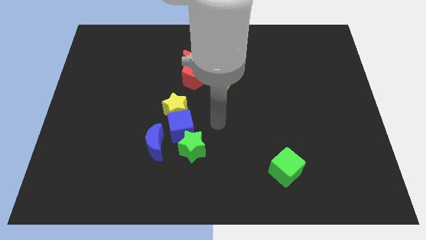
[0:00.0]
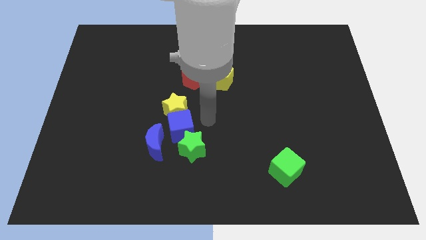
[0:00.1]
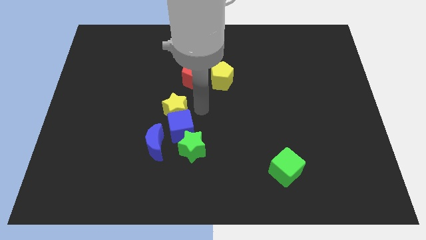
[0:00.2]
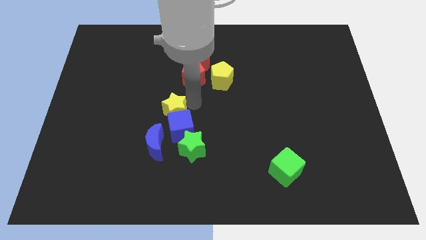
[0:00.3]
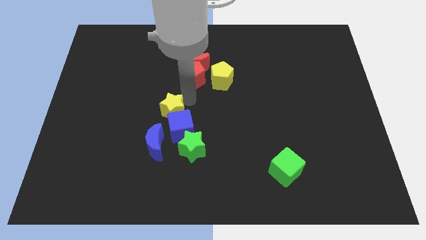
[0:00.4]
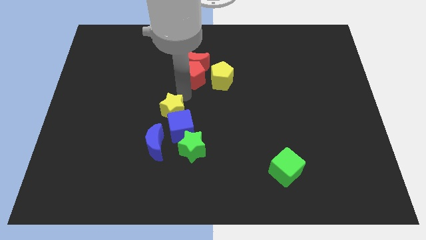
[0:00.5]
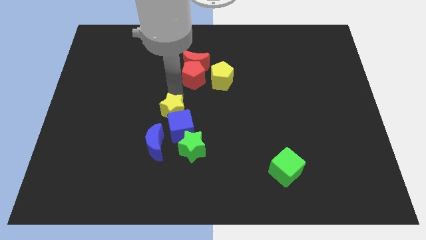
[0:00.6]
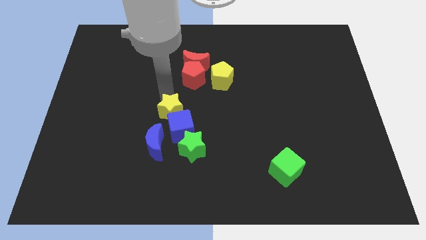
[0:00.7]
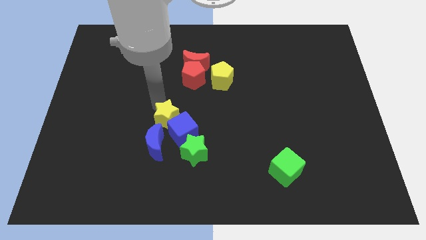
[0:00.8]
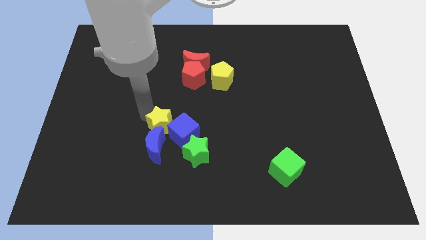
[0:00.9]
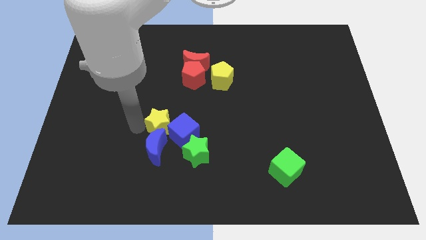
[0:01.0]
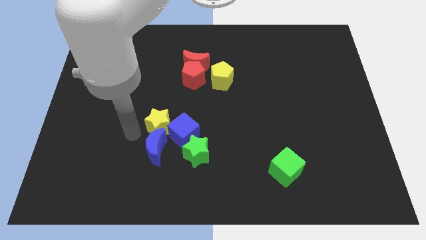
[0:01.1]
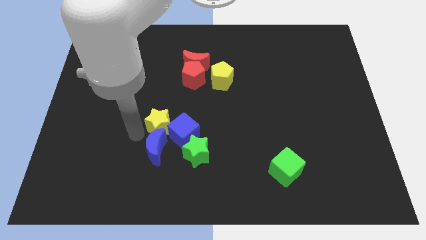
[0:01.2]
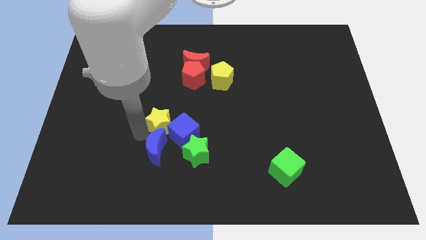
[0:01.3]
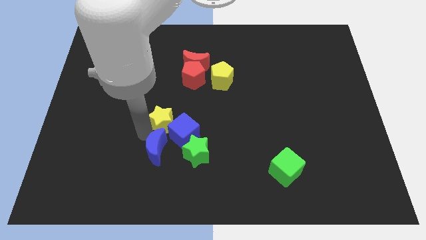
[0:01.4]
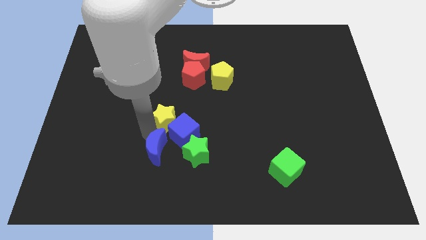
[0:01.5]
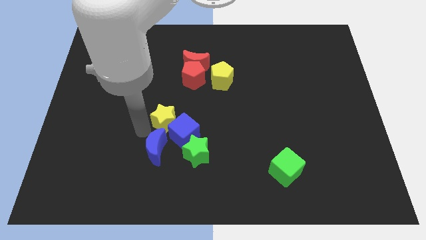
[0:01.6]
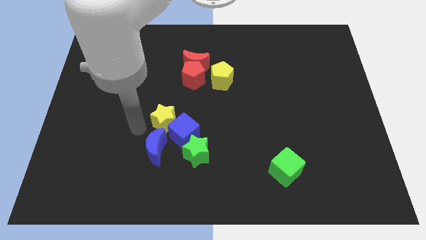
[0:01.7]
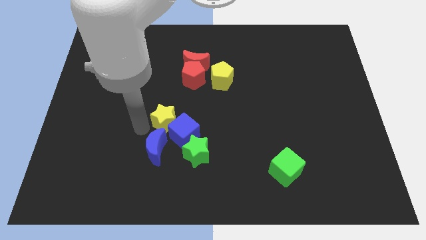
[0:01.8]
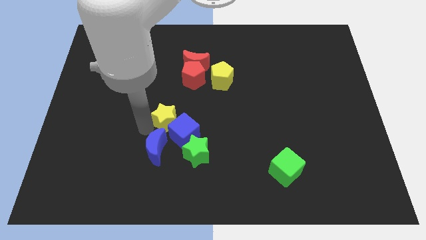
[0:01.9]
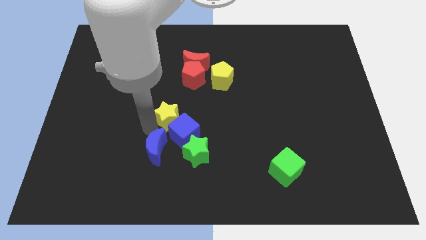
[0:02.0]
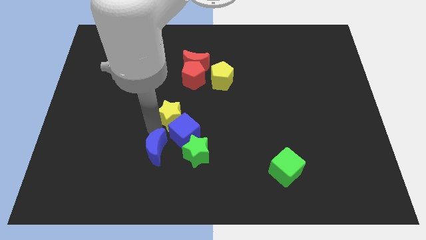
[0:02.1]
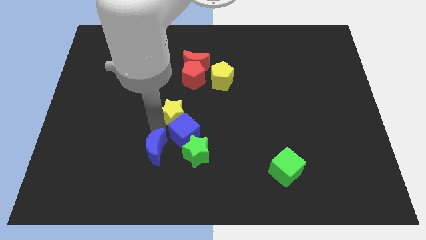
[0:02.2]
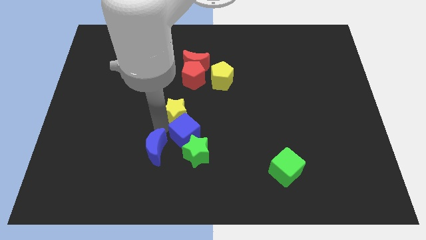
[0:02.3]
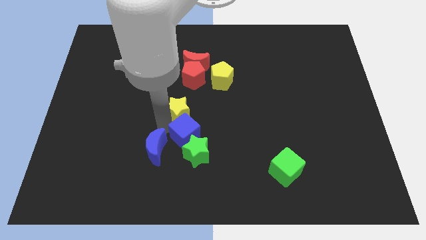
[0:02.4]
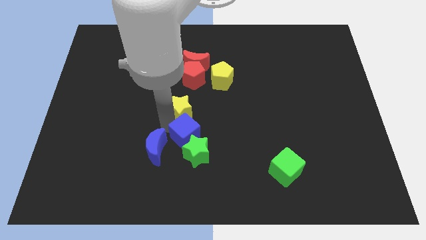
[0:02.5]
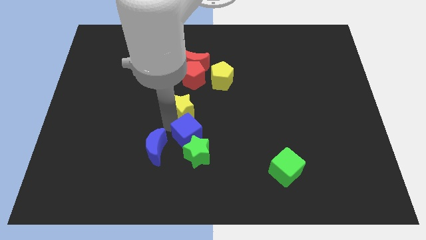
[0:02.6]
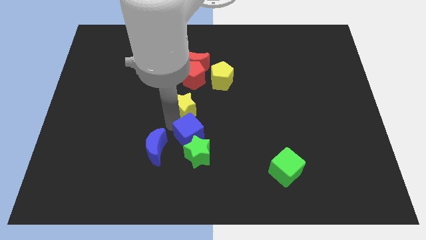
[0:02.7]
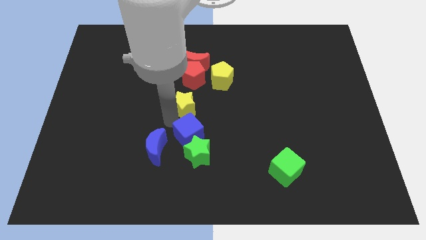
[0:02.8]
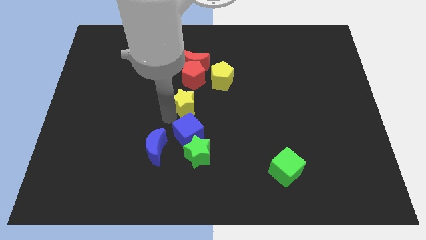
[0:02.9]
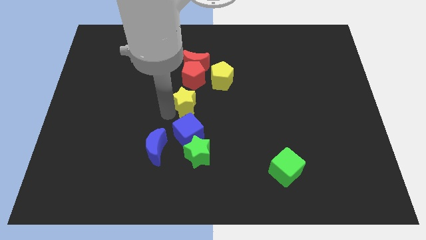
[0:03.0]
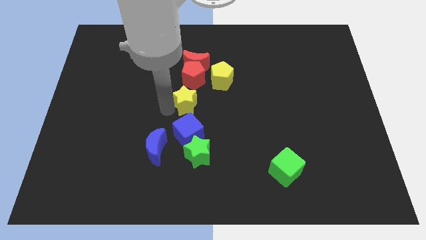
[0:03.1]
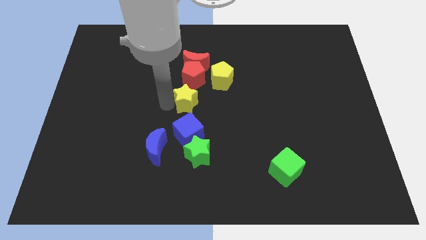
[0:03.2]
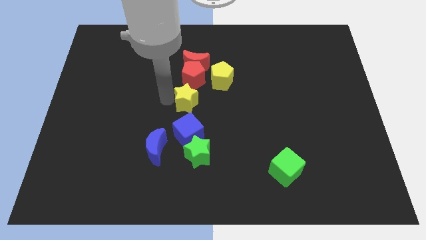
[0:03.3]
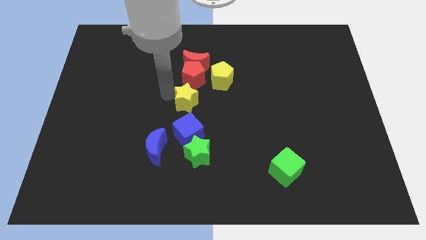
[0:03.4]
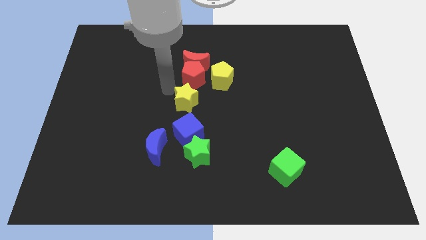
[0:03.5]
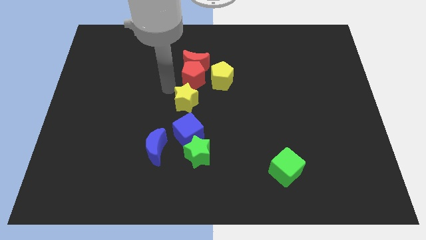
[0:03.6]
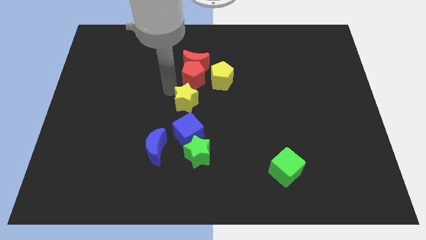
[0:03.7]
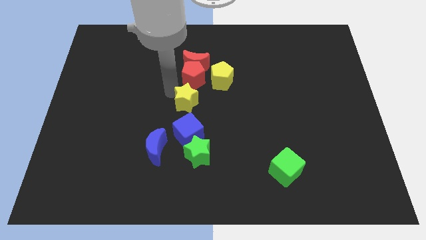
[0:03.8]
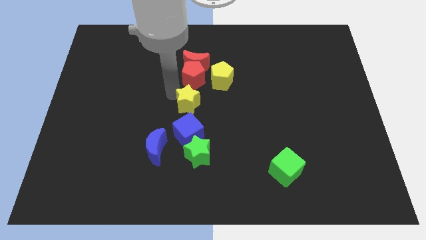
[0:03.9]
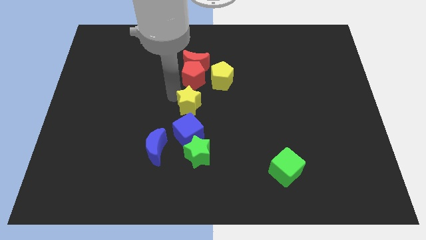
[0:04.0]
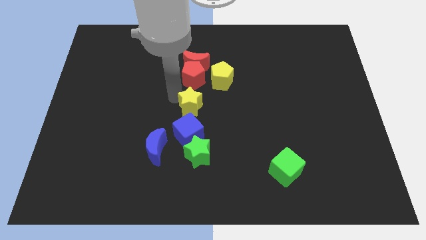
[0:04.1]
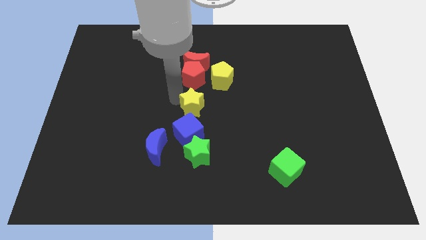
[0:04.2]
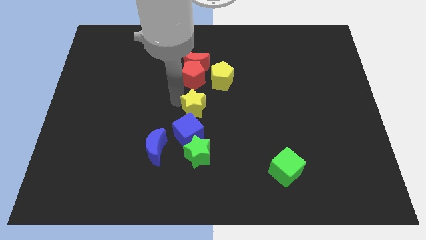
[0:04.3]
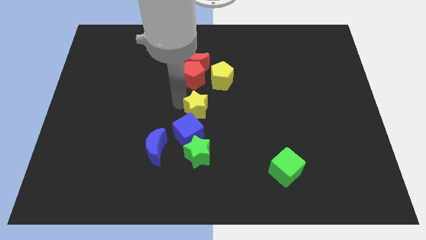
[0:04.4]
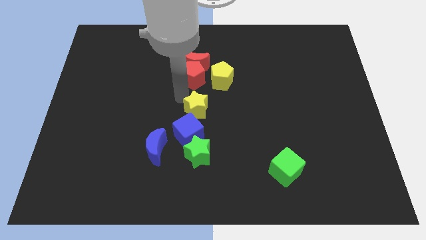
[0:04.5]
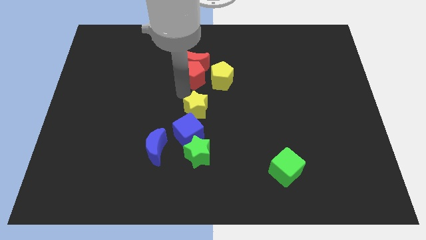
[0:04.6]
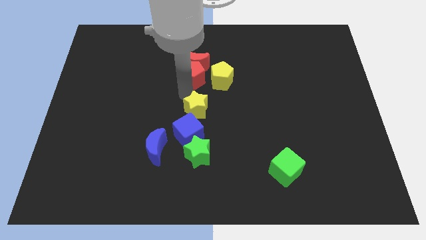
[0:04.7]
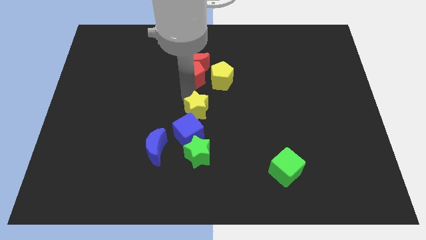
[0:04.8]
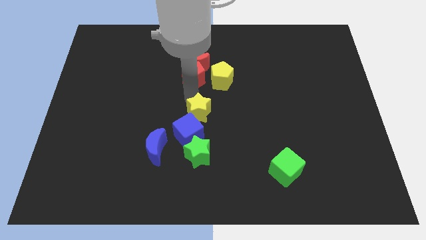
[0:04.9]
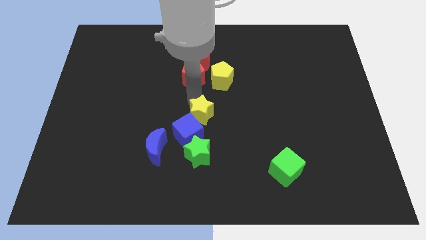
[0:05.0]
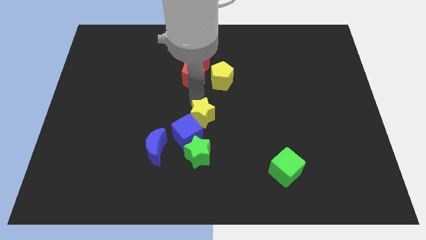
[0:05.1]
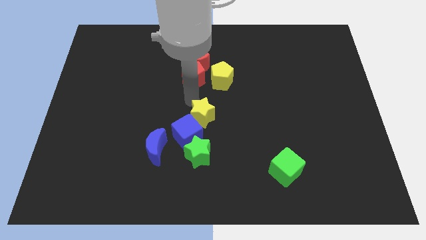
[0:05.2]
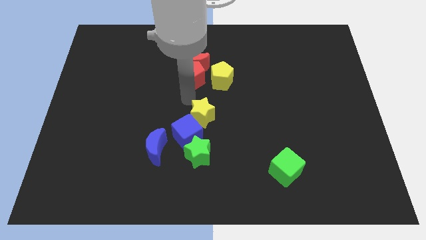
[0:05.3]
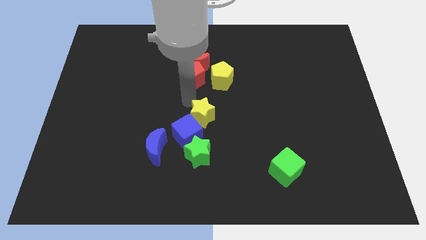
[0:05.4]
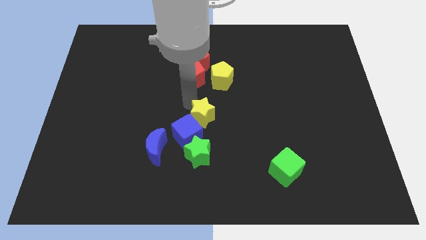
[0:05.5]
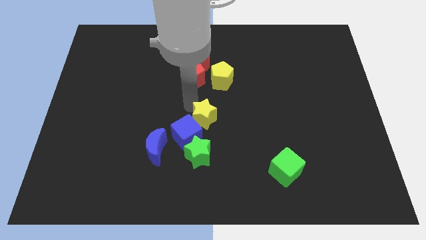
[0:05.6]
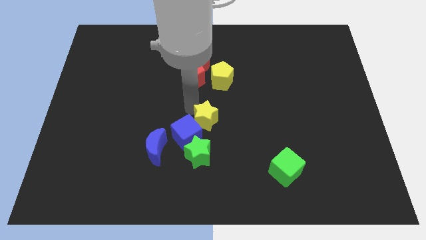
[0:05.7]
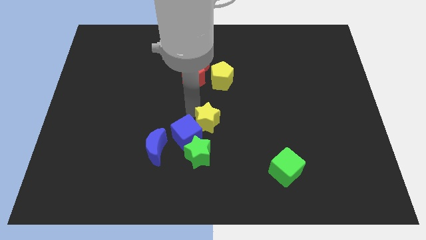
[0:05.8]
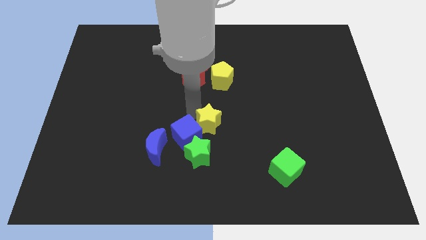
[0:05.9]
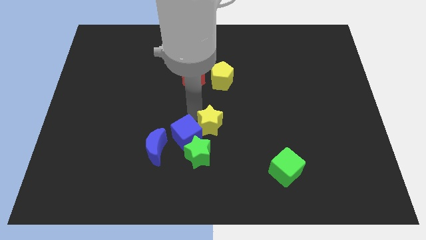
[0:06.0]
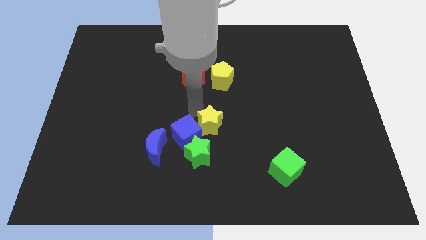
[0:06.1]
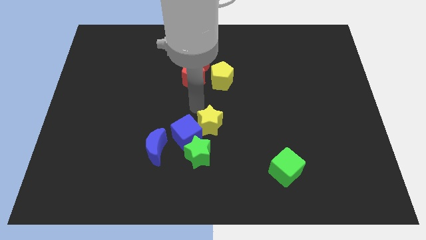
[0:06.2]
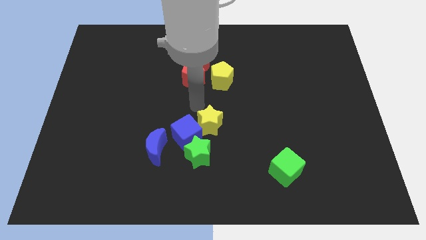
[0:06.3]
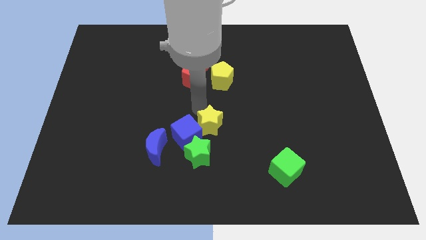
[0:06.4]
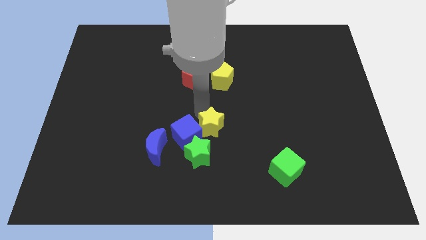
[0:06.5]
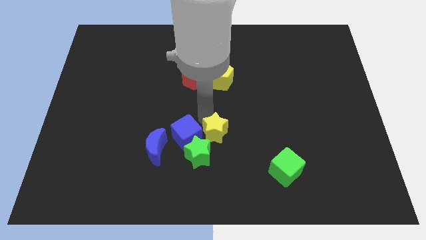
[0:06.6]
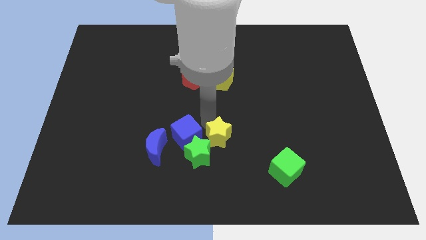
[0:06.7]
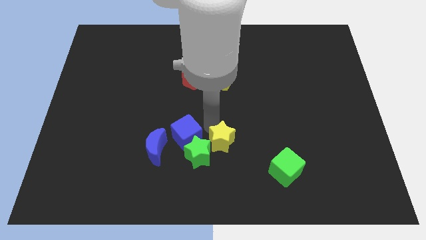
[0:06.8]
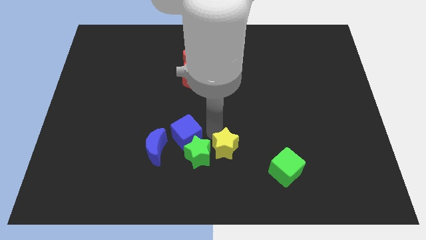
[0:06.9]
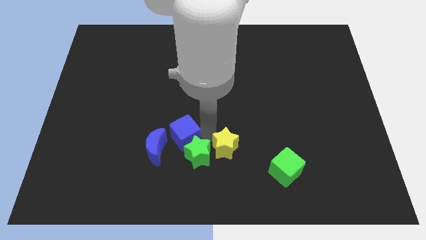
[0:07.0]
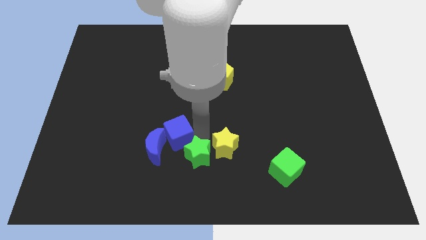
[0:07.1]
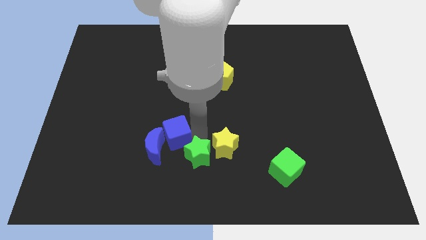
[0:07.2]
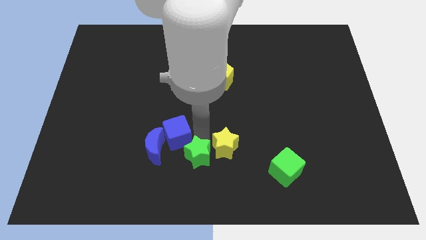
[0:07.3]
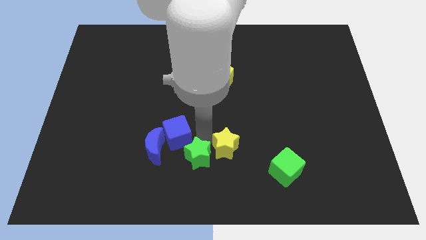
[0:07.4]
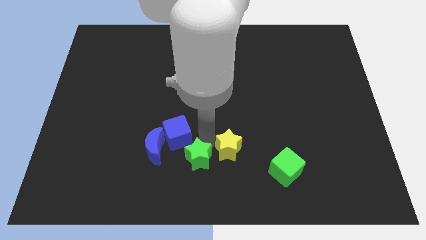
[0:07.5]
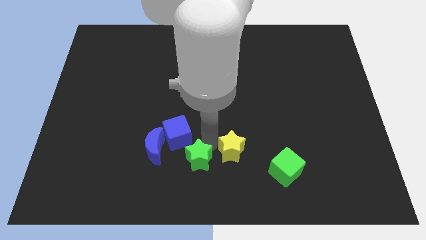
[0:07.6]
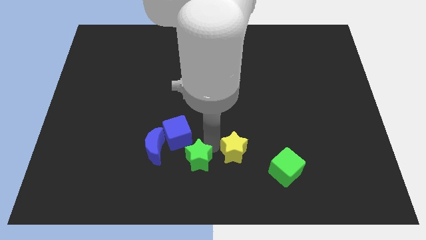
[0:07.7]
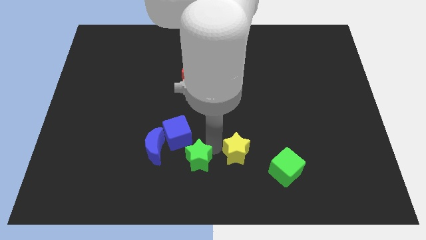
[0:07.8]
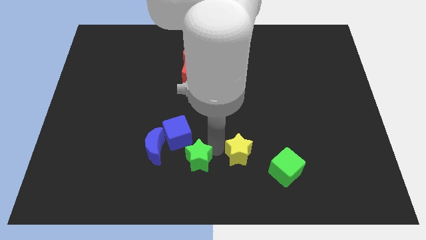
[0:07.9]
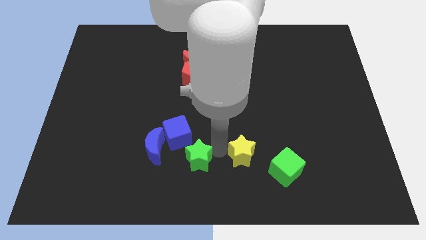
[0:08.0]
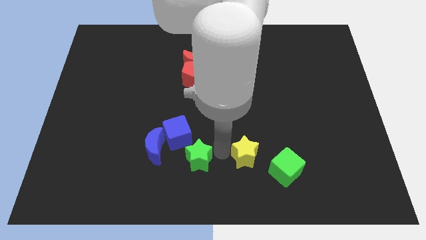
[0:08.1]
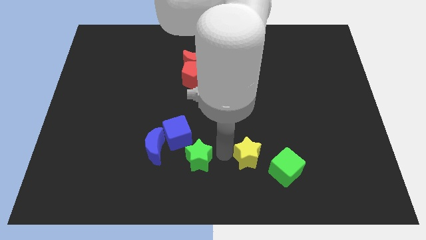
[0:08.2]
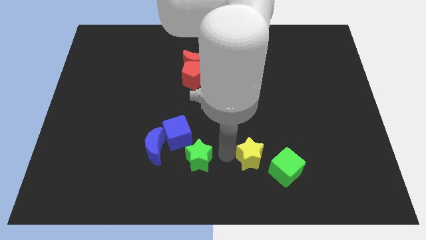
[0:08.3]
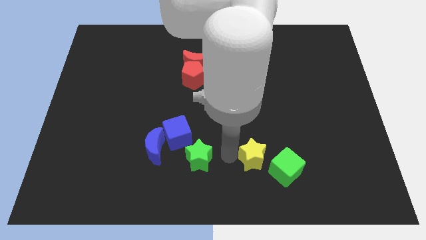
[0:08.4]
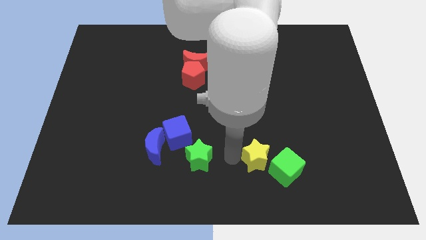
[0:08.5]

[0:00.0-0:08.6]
slide the yellow star next to the green cube
